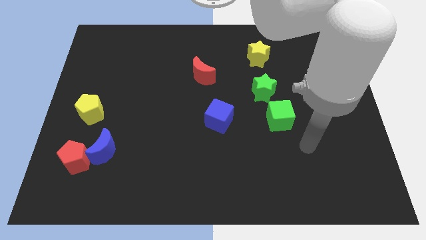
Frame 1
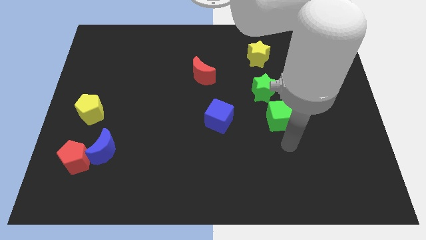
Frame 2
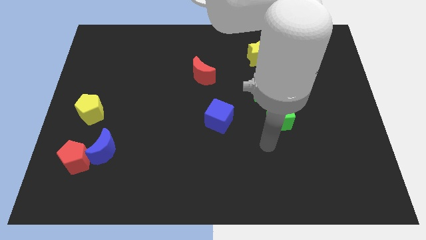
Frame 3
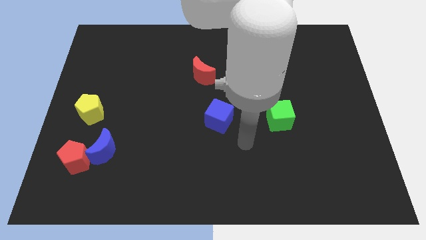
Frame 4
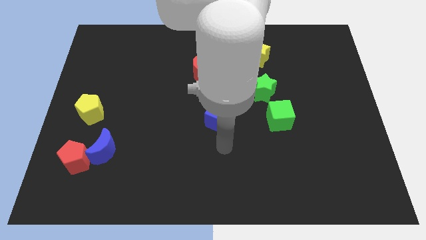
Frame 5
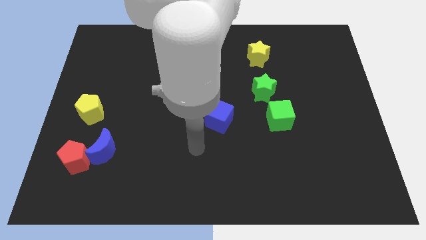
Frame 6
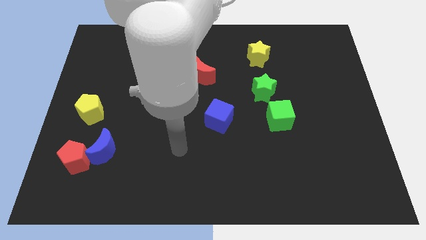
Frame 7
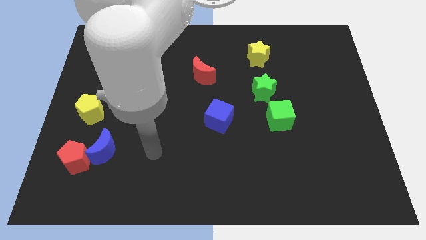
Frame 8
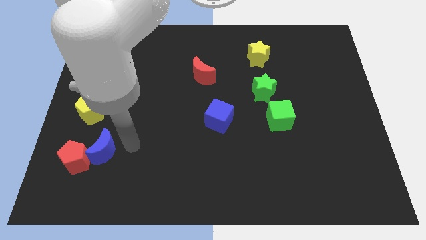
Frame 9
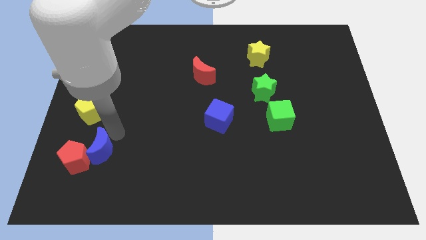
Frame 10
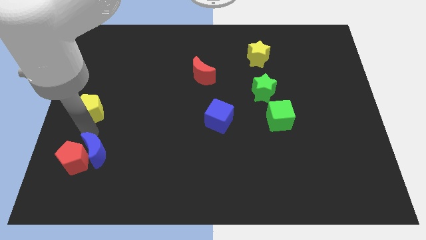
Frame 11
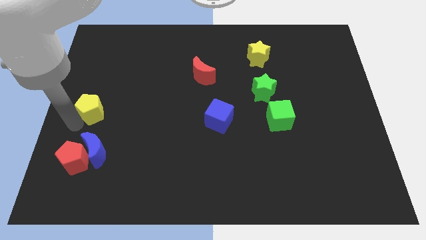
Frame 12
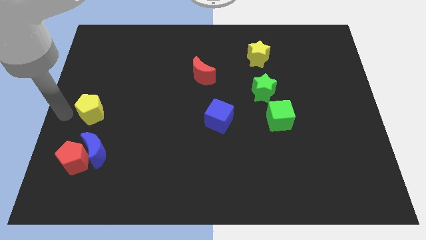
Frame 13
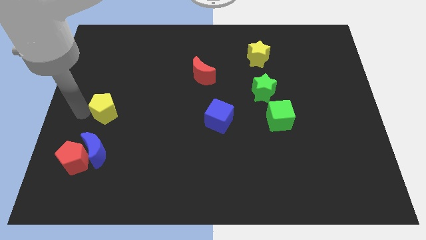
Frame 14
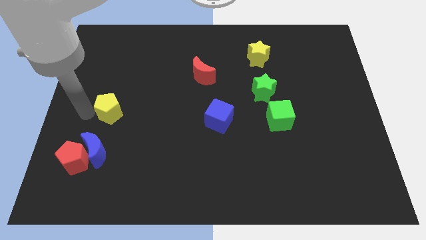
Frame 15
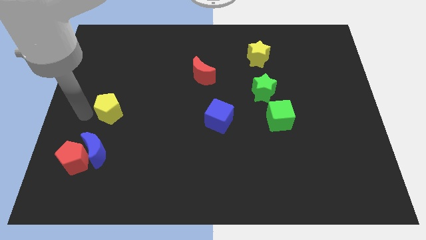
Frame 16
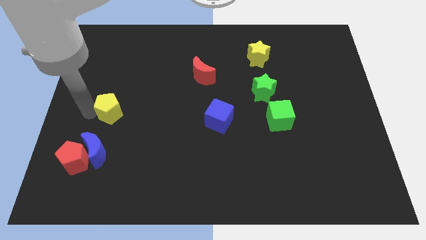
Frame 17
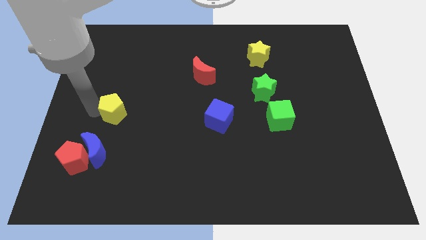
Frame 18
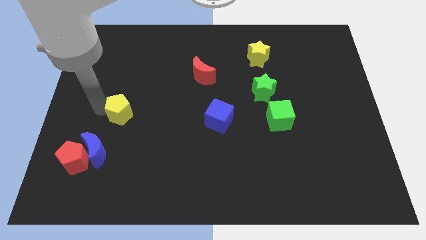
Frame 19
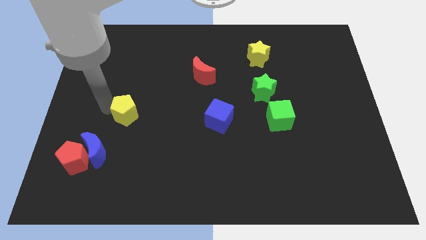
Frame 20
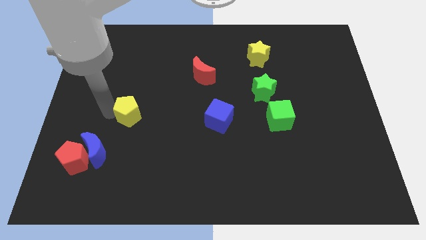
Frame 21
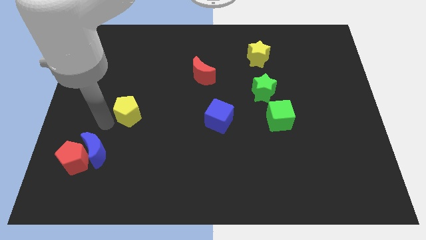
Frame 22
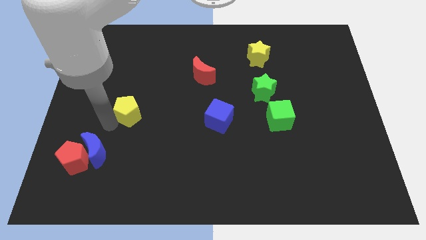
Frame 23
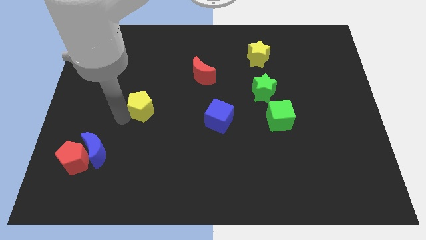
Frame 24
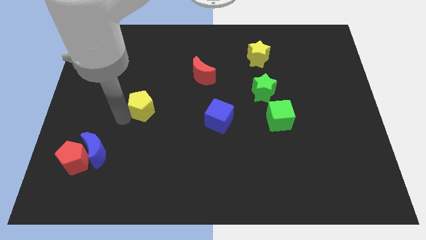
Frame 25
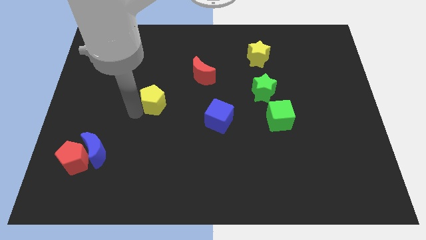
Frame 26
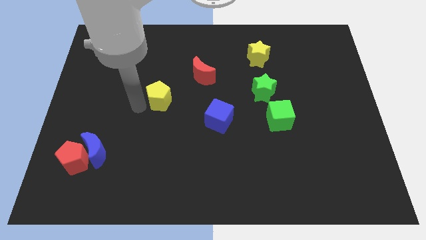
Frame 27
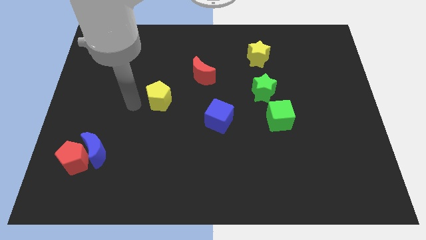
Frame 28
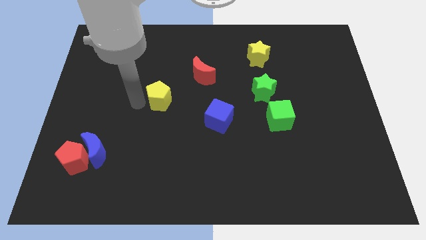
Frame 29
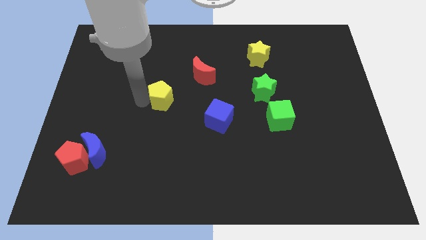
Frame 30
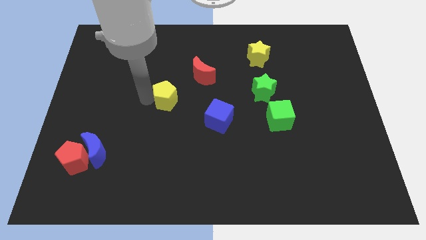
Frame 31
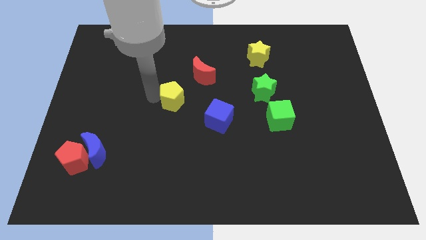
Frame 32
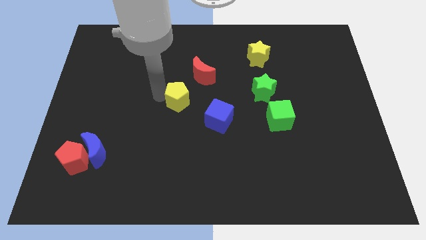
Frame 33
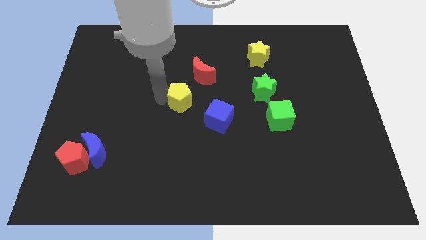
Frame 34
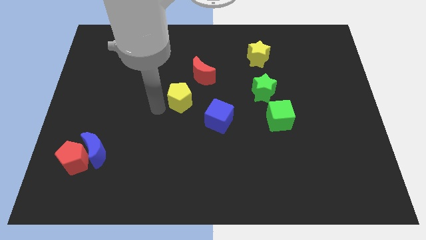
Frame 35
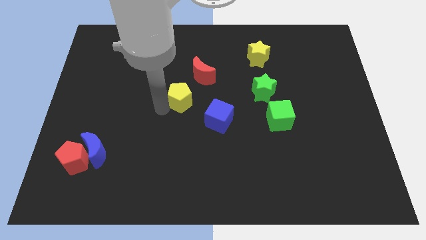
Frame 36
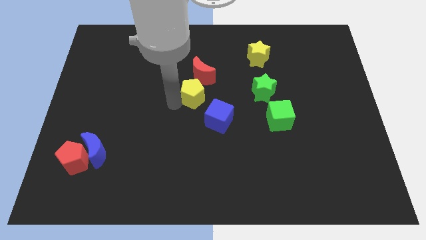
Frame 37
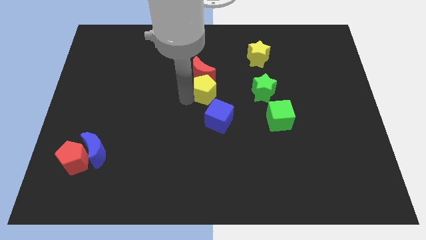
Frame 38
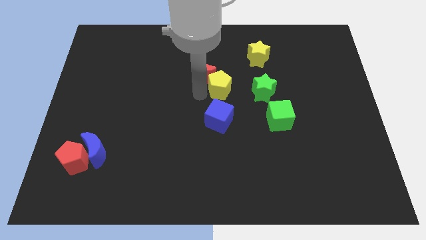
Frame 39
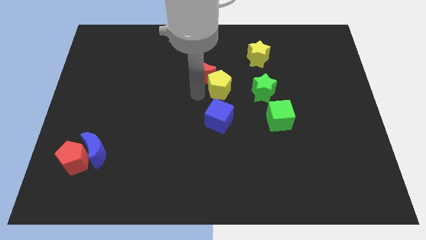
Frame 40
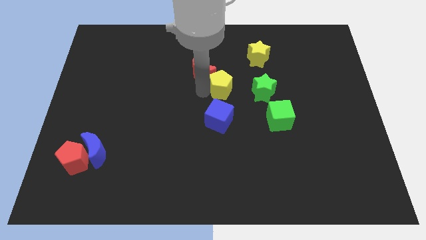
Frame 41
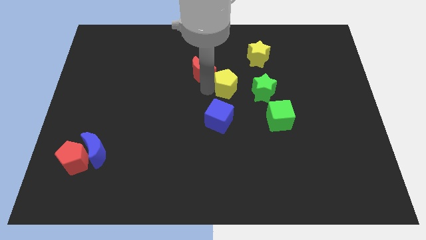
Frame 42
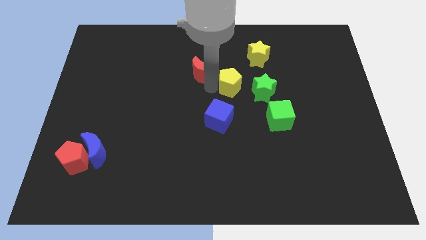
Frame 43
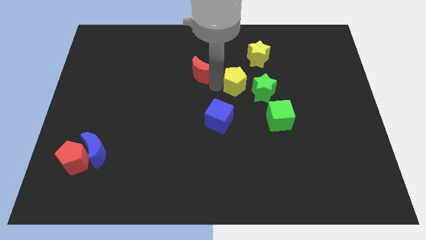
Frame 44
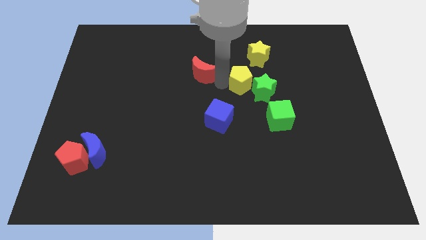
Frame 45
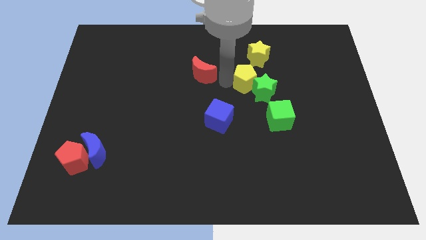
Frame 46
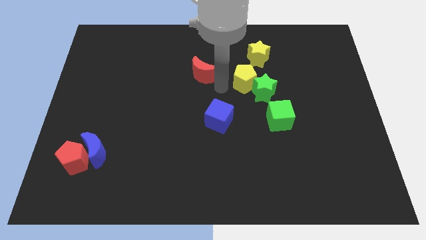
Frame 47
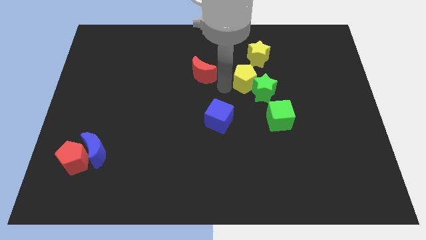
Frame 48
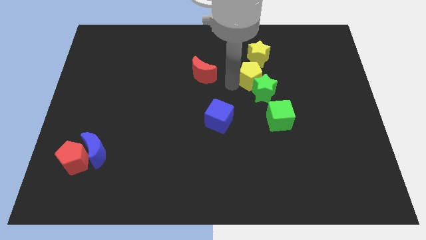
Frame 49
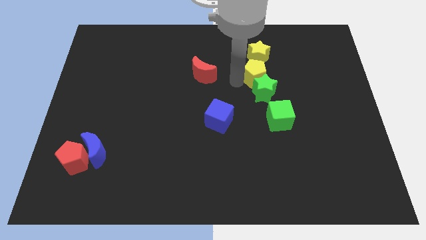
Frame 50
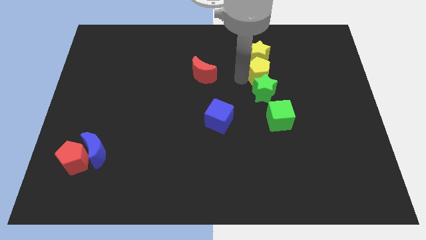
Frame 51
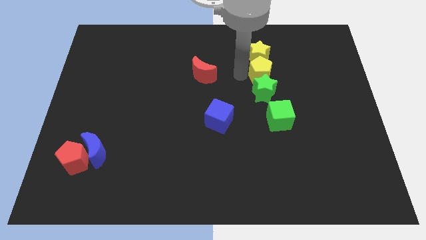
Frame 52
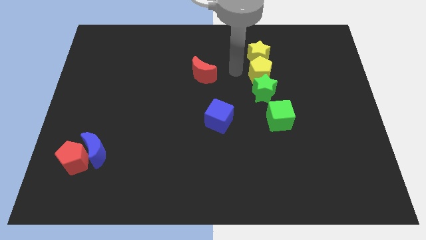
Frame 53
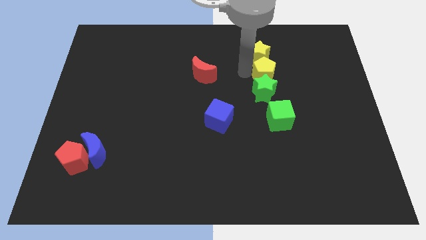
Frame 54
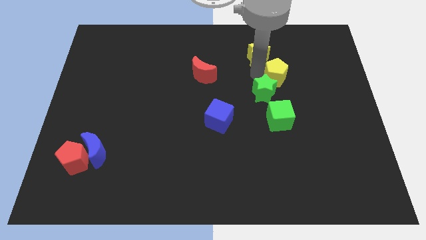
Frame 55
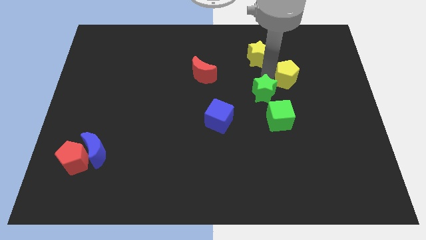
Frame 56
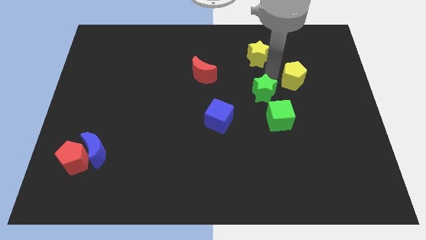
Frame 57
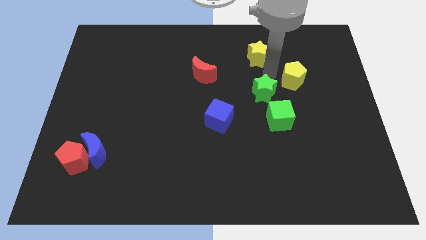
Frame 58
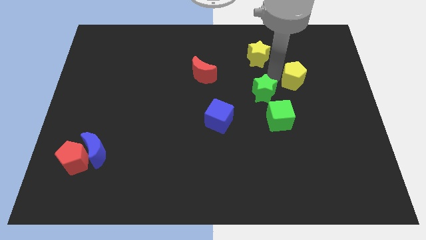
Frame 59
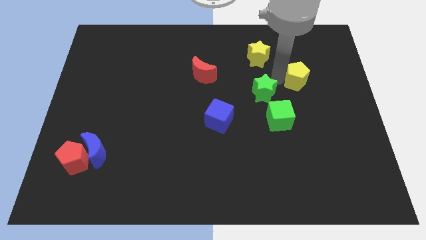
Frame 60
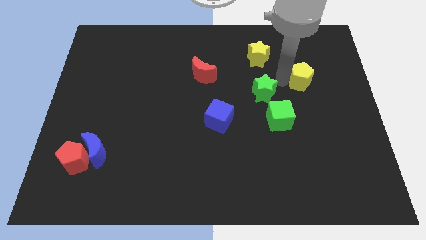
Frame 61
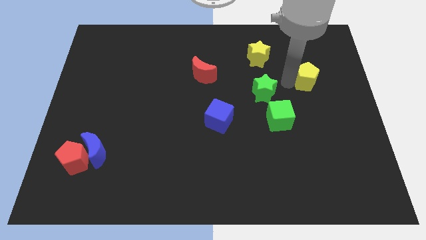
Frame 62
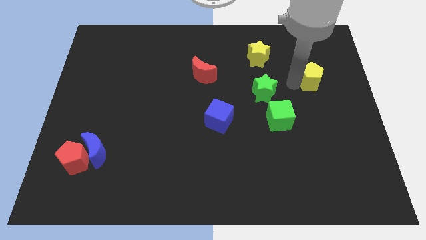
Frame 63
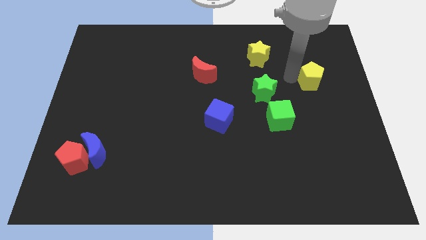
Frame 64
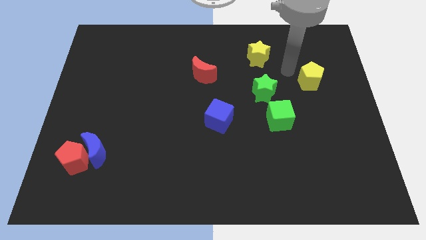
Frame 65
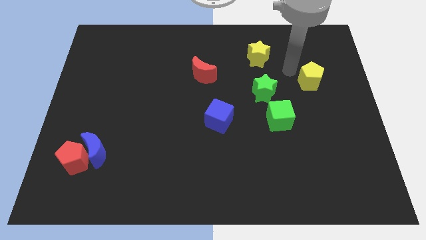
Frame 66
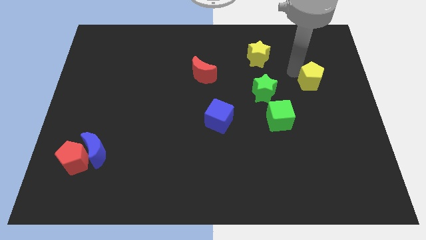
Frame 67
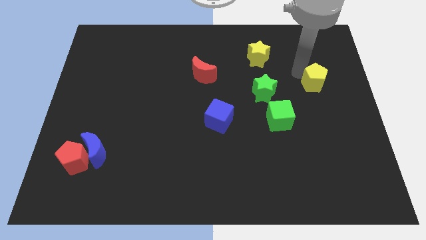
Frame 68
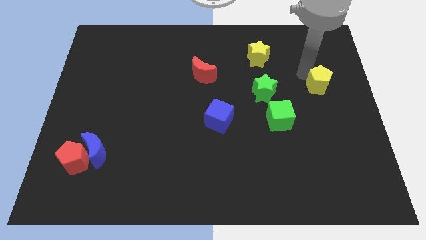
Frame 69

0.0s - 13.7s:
put the yellow pentagon to the right side
